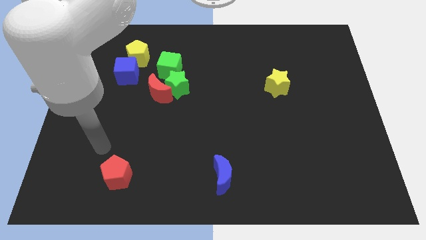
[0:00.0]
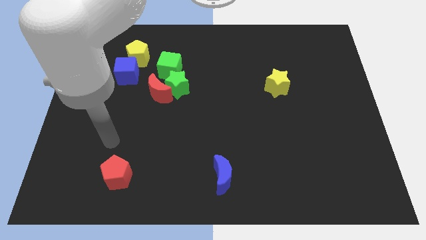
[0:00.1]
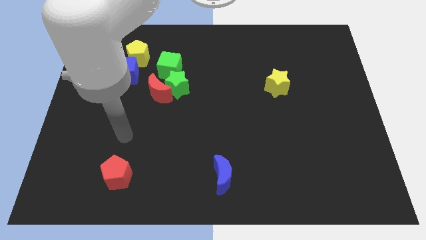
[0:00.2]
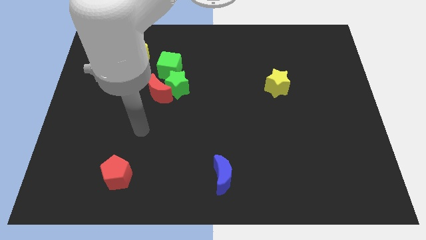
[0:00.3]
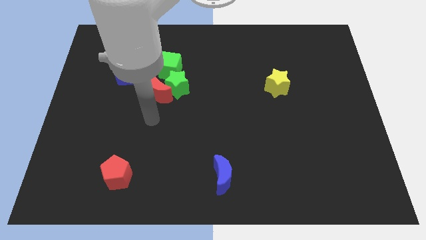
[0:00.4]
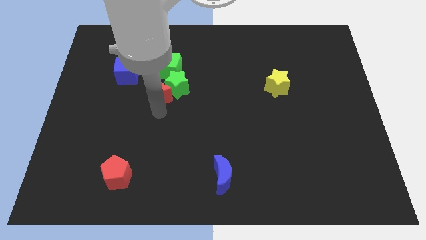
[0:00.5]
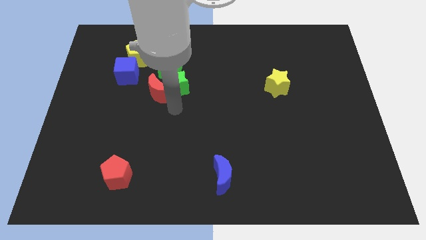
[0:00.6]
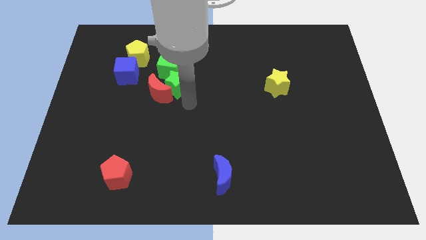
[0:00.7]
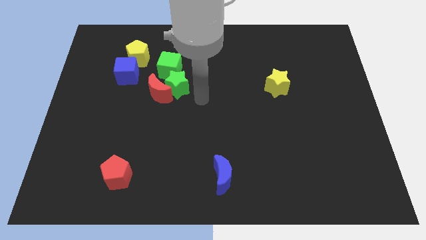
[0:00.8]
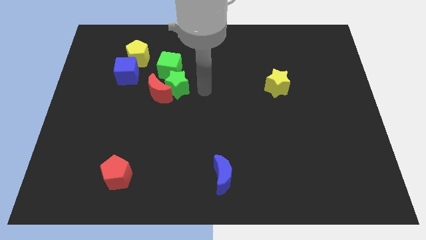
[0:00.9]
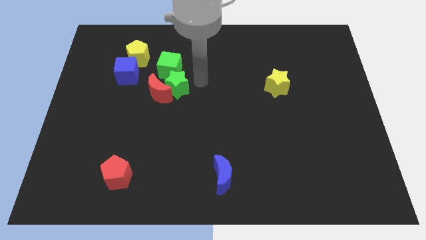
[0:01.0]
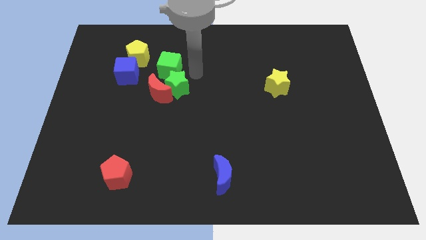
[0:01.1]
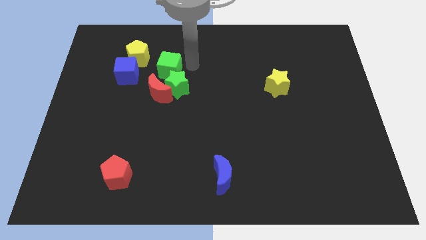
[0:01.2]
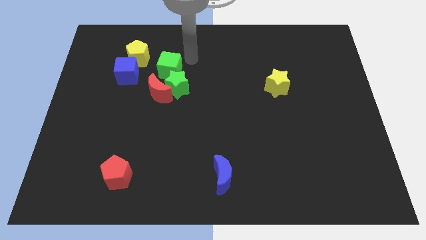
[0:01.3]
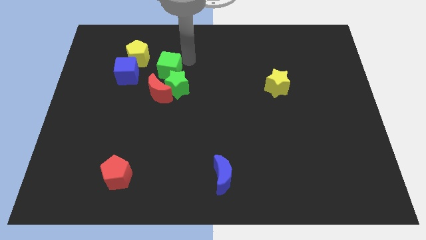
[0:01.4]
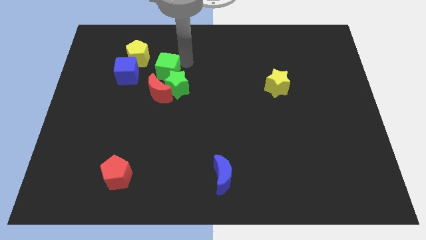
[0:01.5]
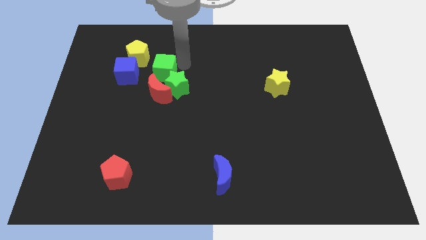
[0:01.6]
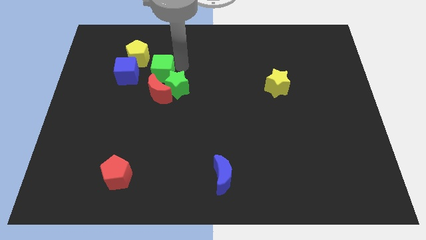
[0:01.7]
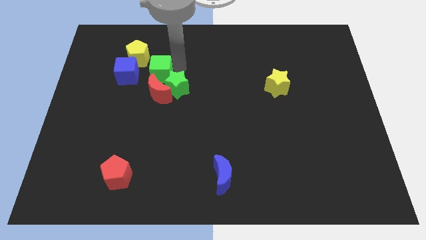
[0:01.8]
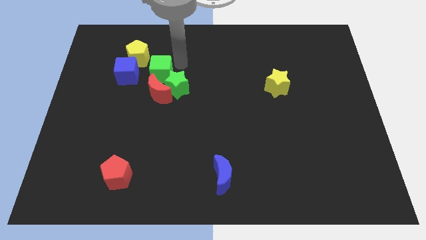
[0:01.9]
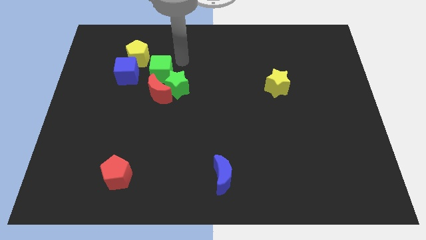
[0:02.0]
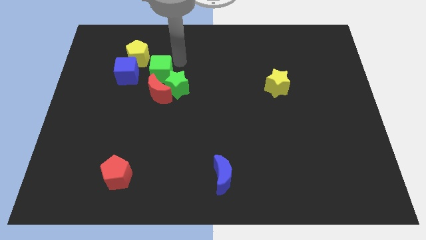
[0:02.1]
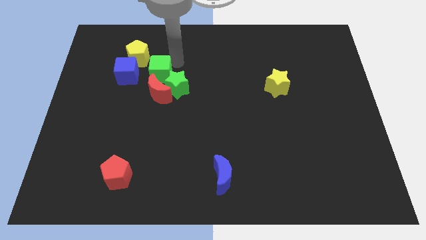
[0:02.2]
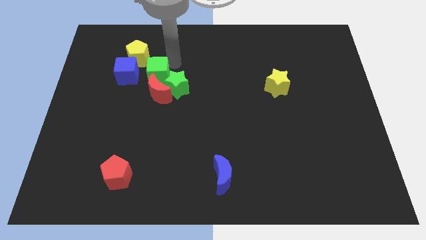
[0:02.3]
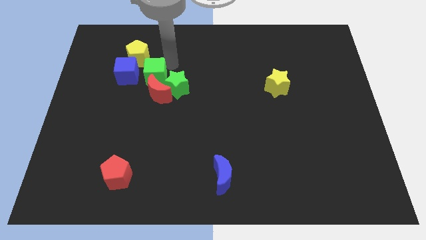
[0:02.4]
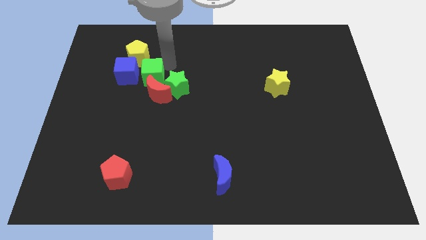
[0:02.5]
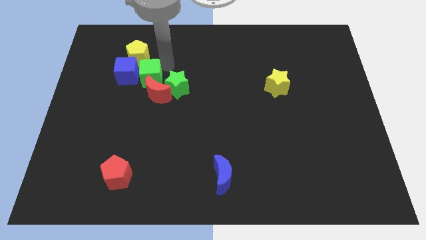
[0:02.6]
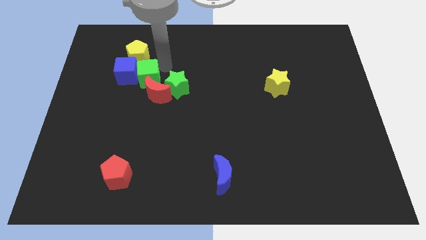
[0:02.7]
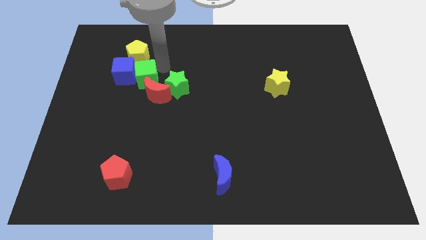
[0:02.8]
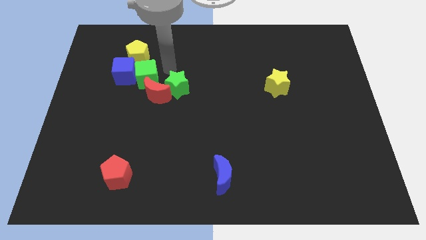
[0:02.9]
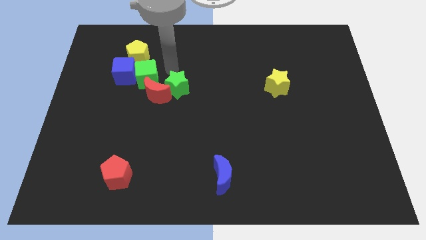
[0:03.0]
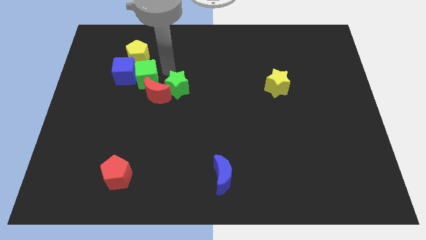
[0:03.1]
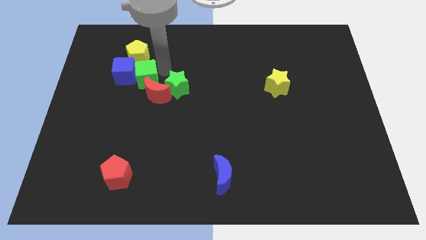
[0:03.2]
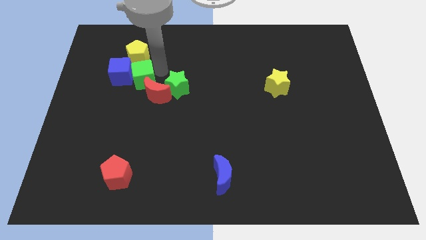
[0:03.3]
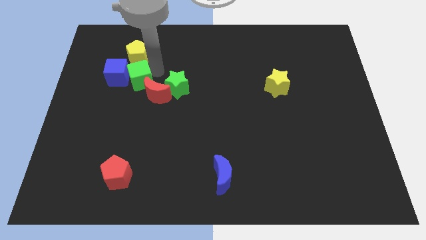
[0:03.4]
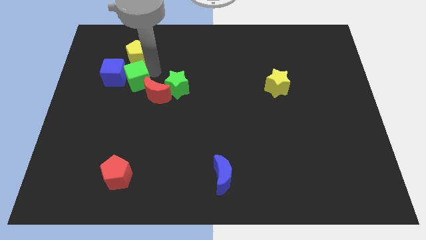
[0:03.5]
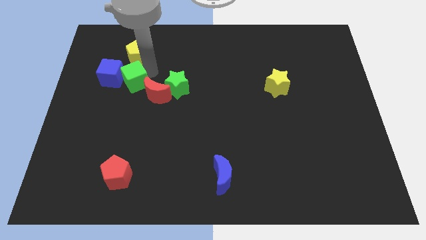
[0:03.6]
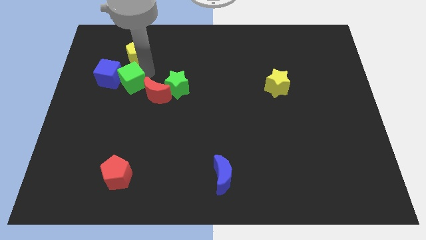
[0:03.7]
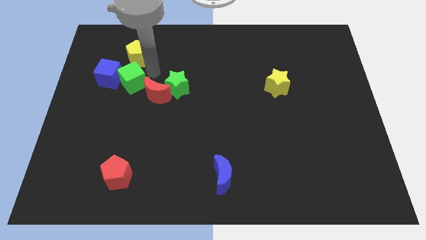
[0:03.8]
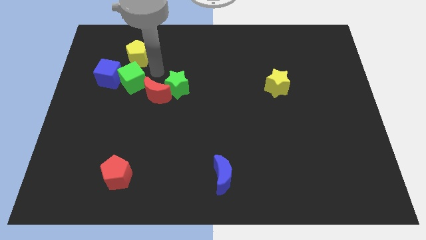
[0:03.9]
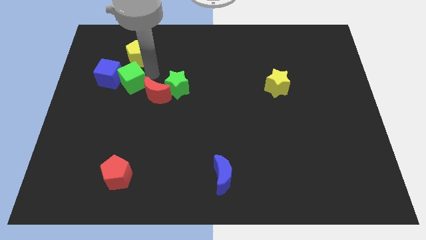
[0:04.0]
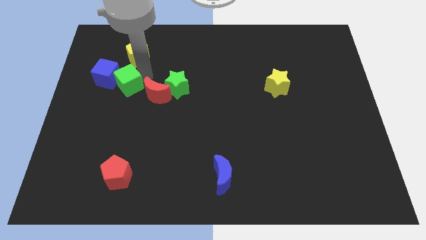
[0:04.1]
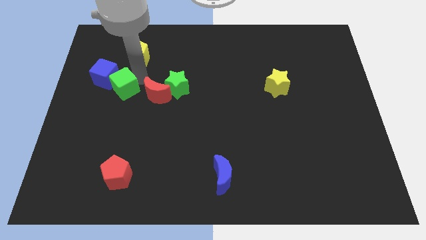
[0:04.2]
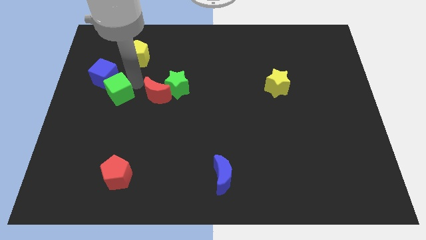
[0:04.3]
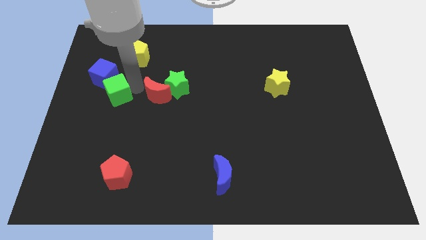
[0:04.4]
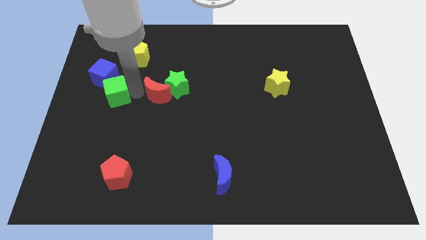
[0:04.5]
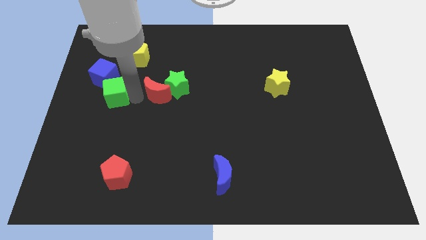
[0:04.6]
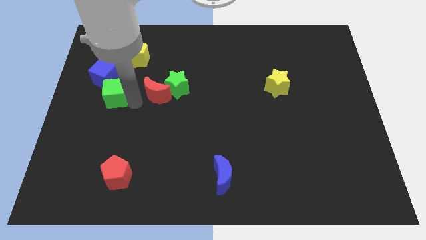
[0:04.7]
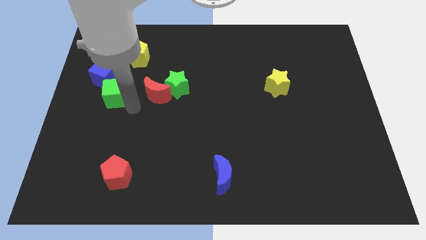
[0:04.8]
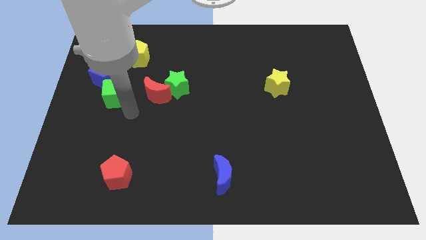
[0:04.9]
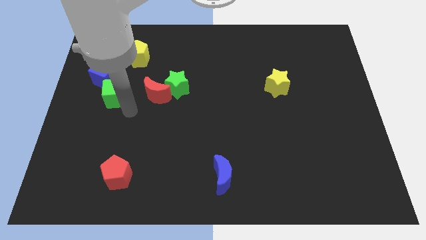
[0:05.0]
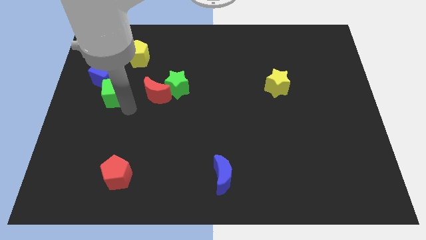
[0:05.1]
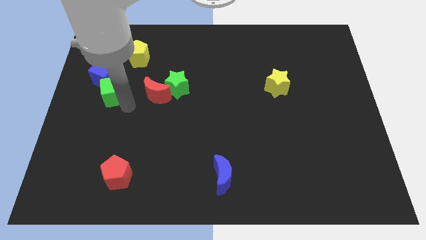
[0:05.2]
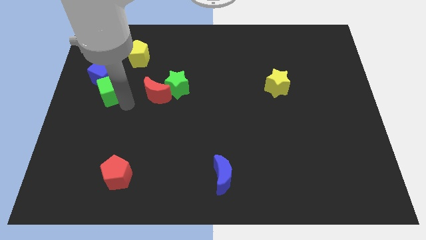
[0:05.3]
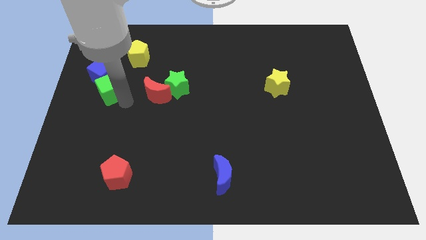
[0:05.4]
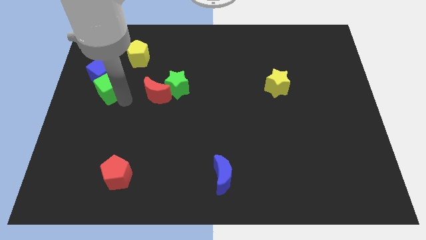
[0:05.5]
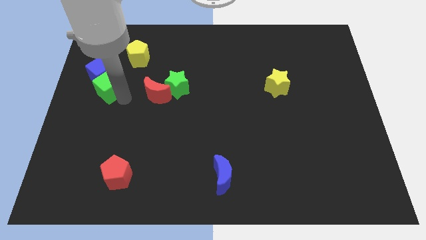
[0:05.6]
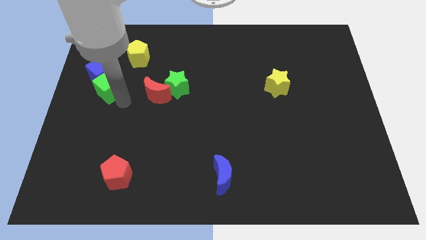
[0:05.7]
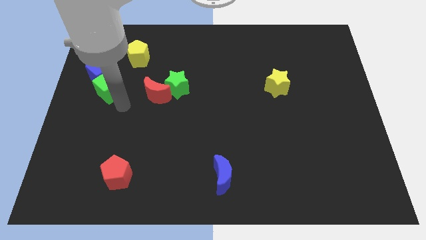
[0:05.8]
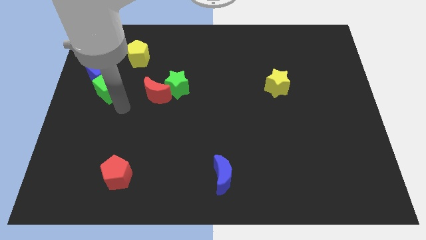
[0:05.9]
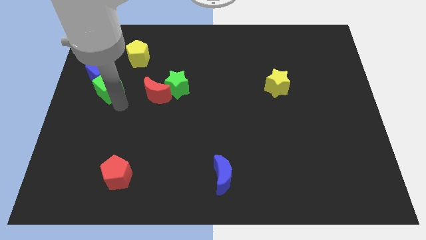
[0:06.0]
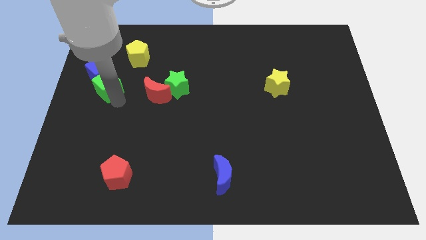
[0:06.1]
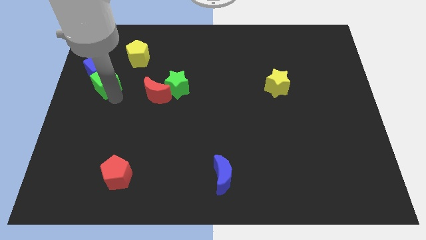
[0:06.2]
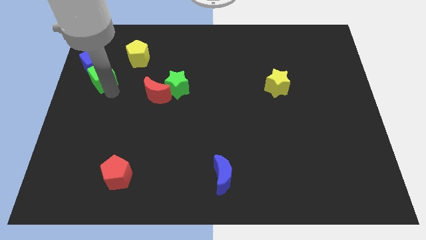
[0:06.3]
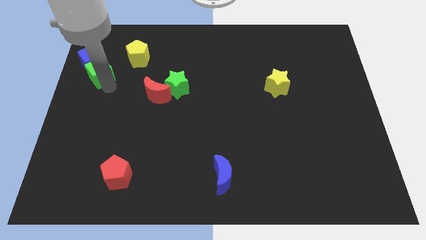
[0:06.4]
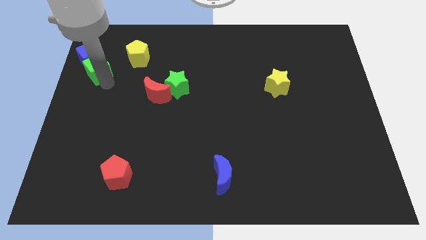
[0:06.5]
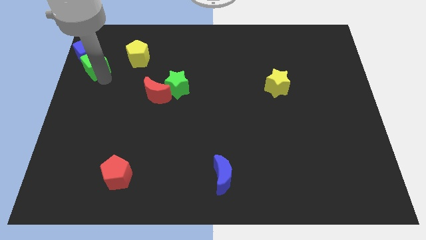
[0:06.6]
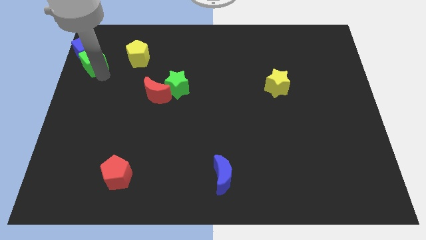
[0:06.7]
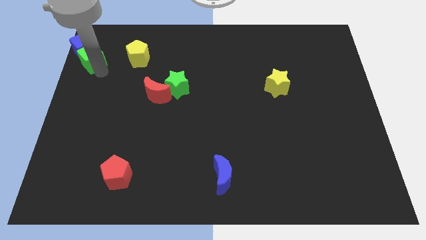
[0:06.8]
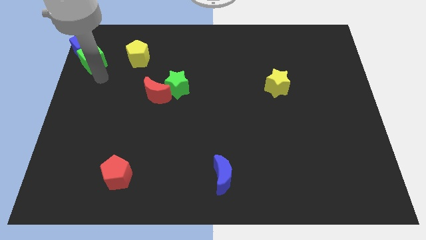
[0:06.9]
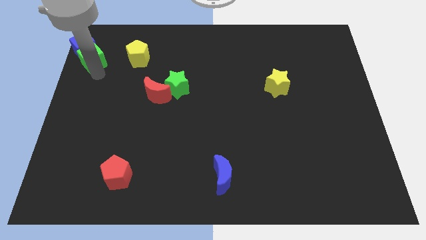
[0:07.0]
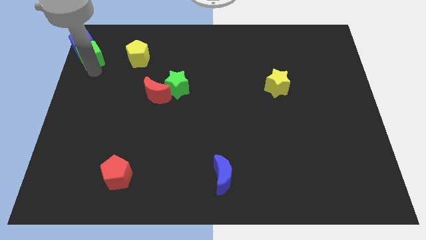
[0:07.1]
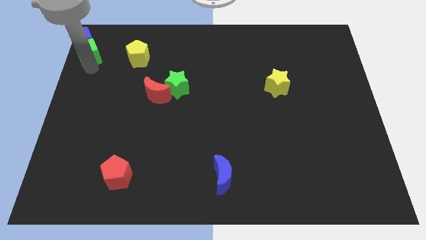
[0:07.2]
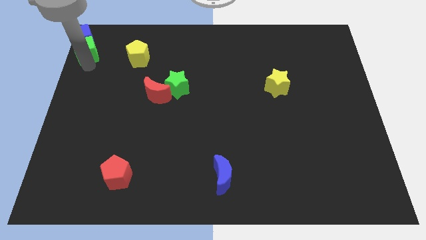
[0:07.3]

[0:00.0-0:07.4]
put the green cube to the top left
